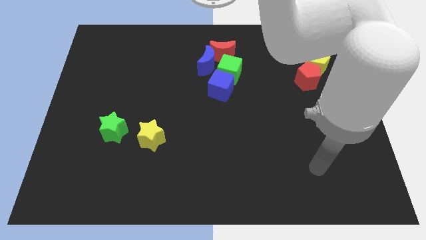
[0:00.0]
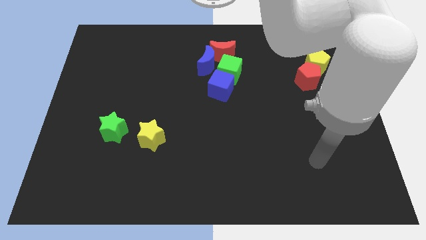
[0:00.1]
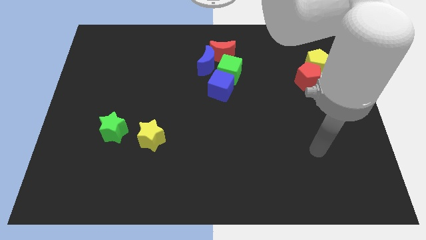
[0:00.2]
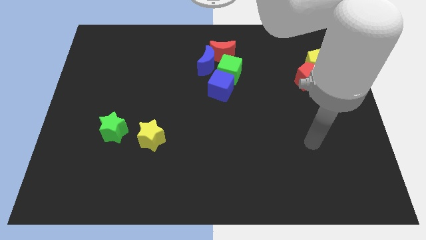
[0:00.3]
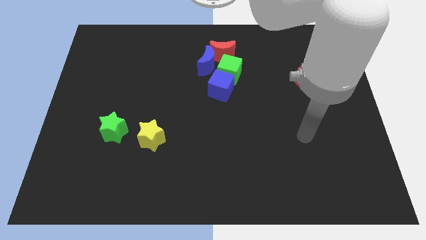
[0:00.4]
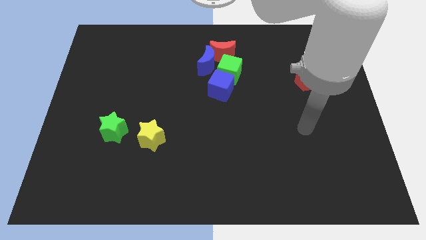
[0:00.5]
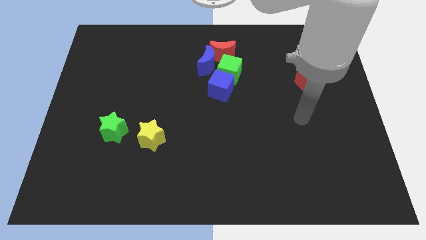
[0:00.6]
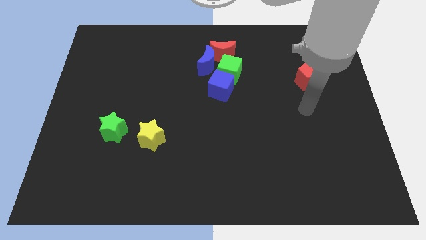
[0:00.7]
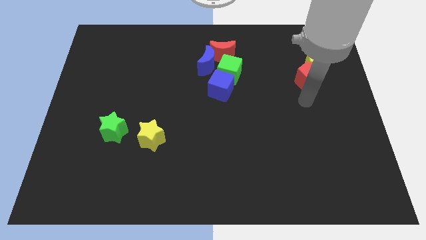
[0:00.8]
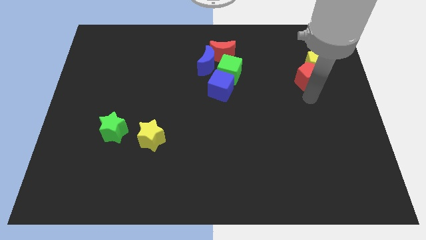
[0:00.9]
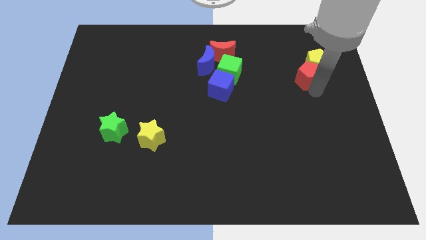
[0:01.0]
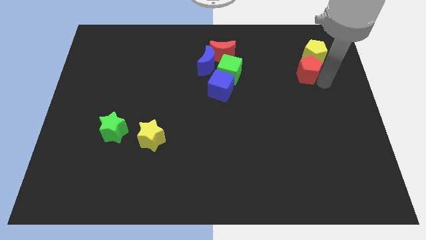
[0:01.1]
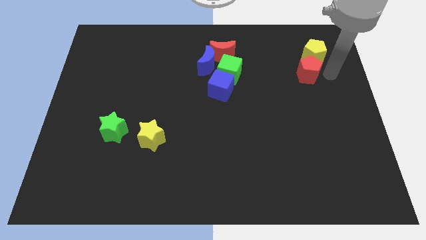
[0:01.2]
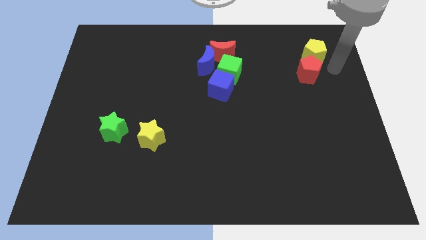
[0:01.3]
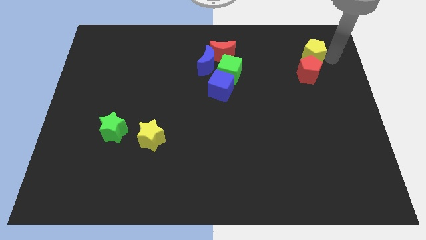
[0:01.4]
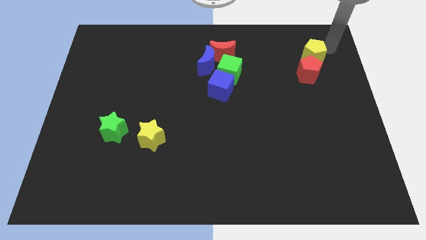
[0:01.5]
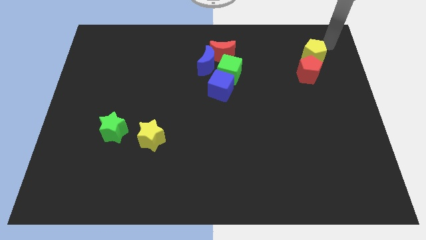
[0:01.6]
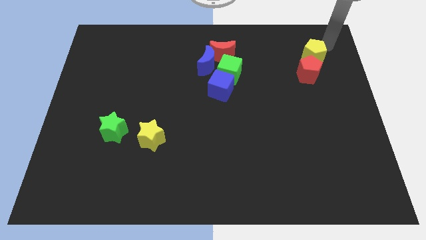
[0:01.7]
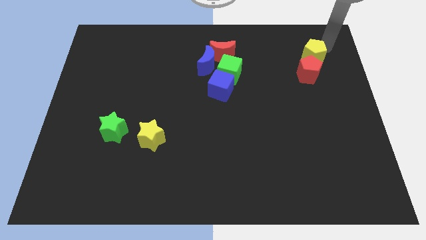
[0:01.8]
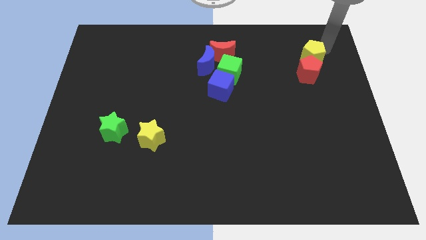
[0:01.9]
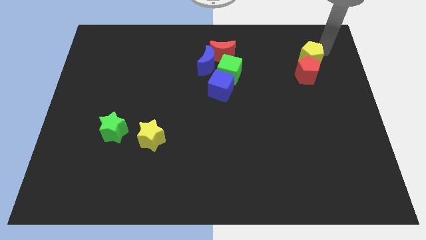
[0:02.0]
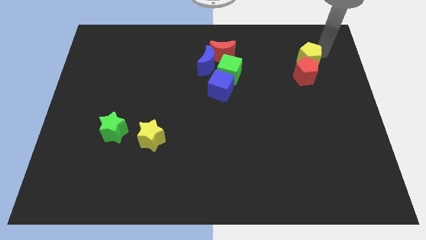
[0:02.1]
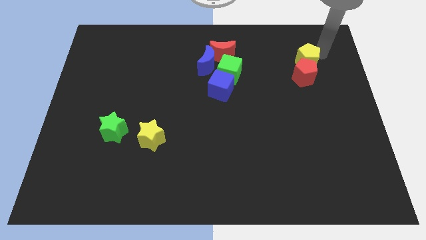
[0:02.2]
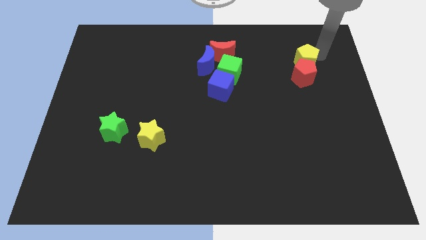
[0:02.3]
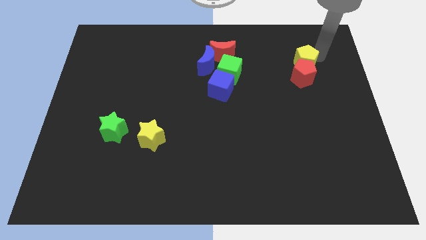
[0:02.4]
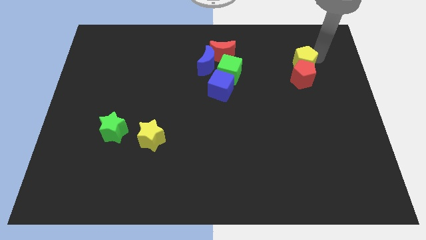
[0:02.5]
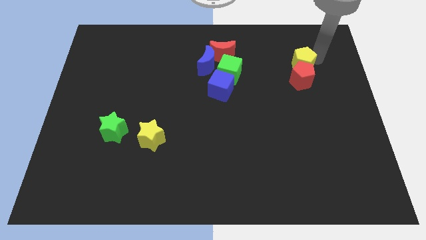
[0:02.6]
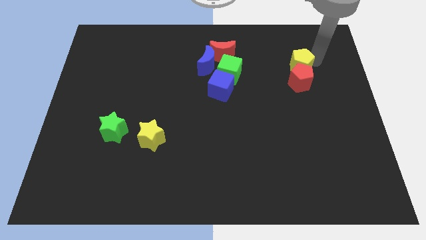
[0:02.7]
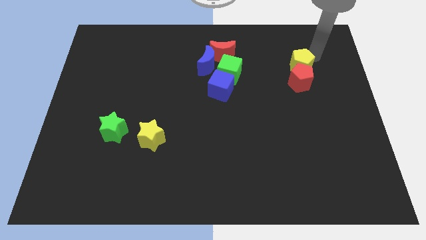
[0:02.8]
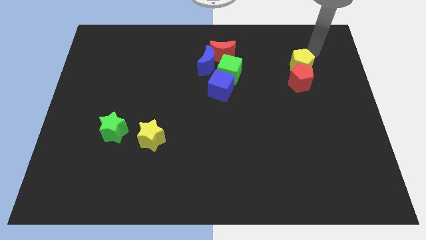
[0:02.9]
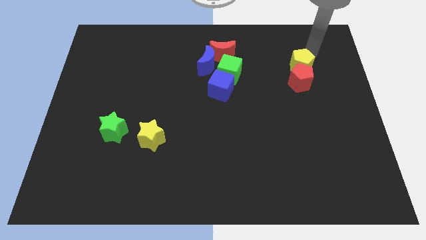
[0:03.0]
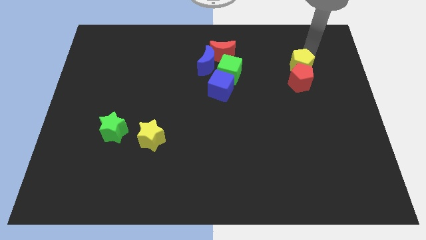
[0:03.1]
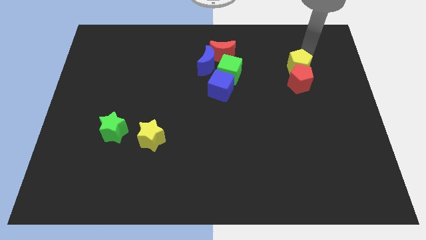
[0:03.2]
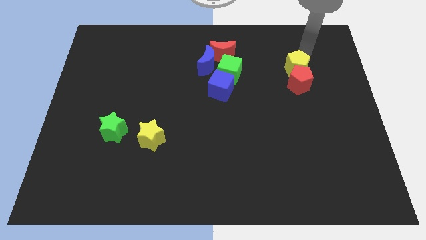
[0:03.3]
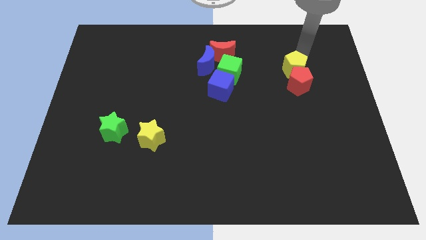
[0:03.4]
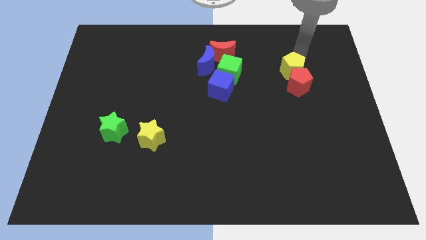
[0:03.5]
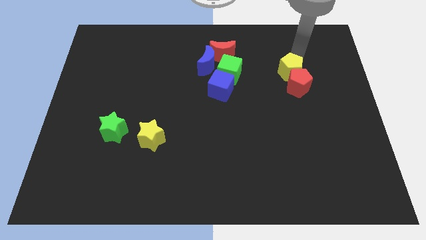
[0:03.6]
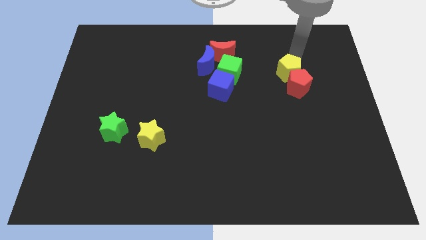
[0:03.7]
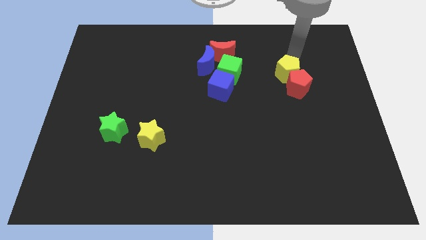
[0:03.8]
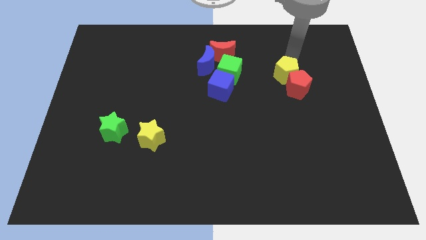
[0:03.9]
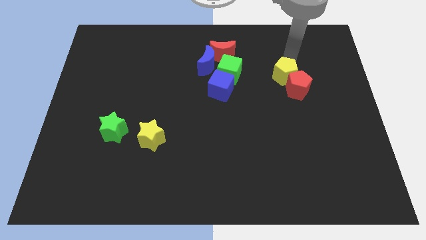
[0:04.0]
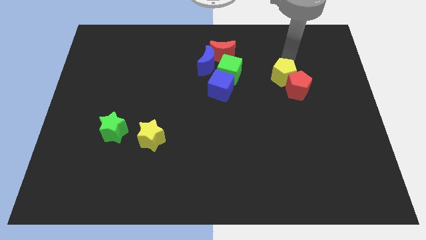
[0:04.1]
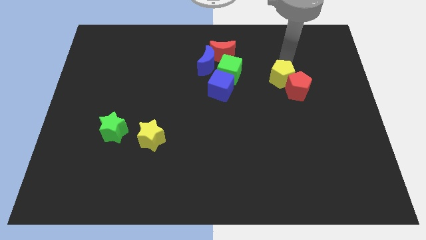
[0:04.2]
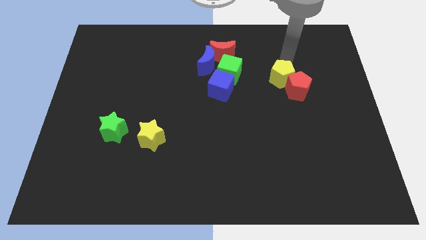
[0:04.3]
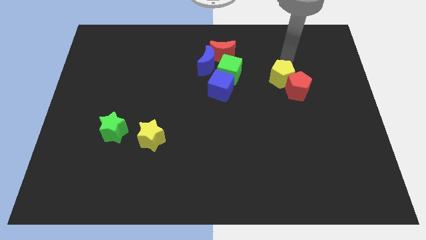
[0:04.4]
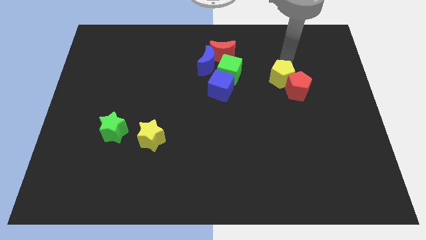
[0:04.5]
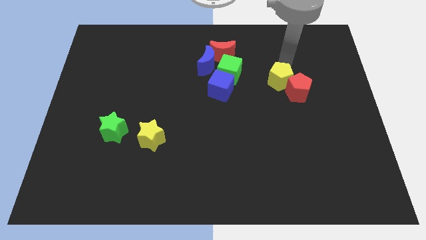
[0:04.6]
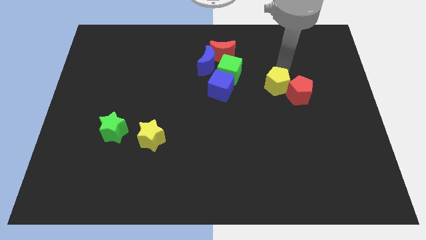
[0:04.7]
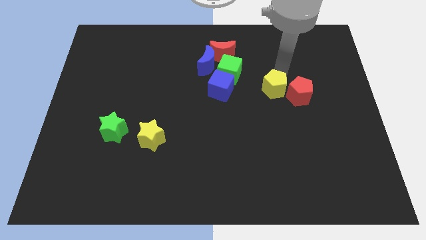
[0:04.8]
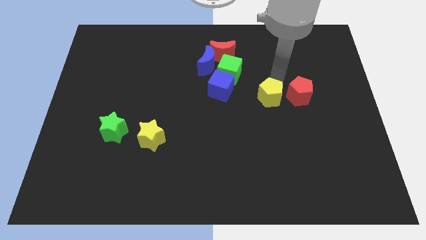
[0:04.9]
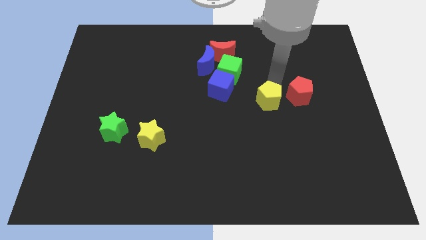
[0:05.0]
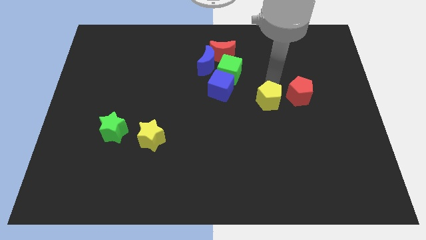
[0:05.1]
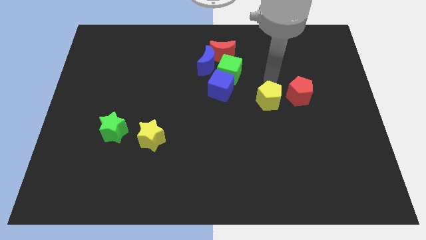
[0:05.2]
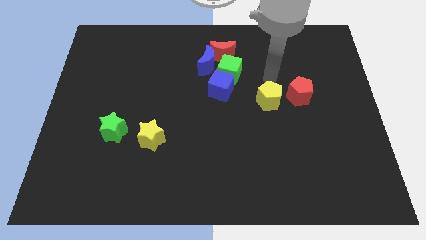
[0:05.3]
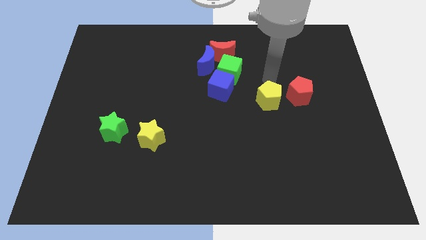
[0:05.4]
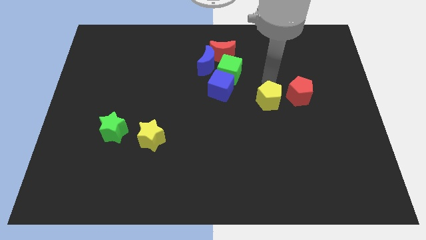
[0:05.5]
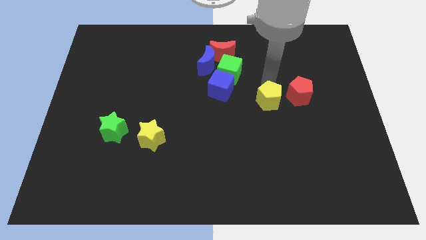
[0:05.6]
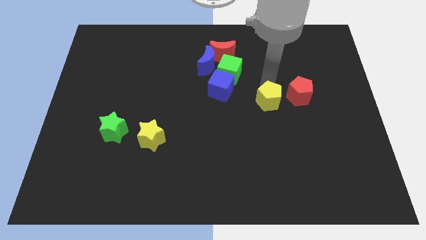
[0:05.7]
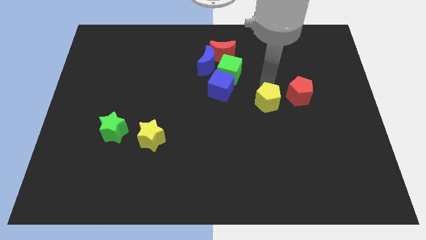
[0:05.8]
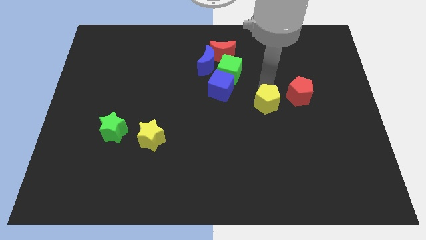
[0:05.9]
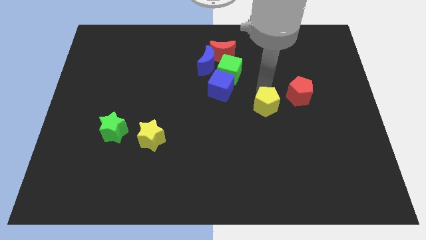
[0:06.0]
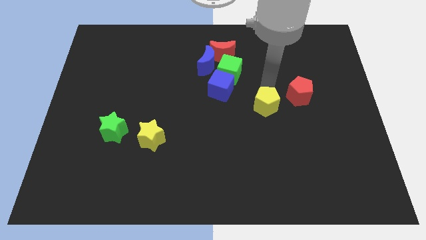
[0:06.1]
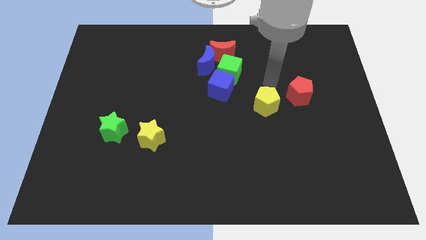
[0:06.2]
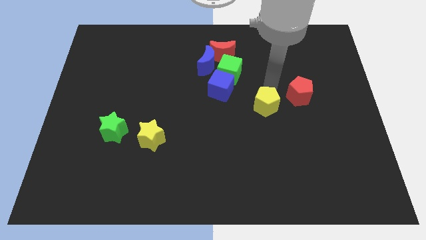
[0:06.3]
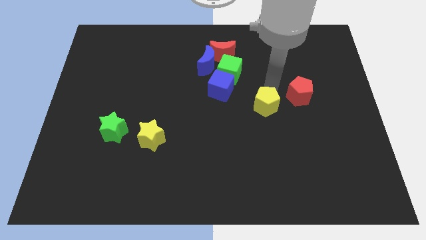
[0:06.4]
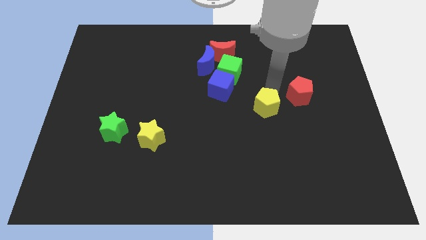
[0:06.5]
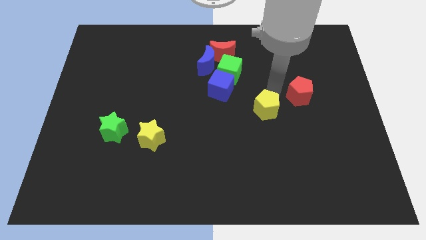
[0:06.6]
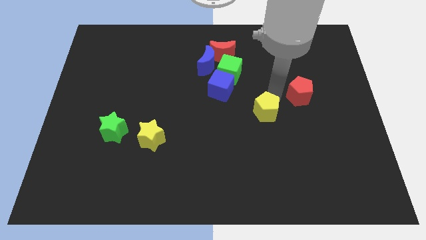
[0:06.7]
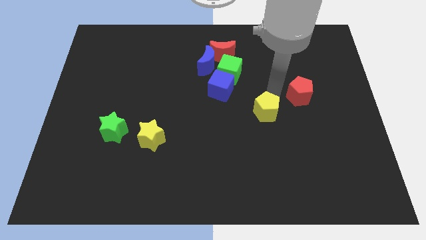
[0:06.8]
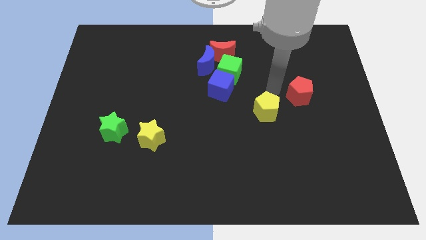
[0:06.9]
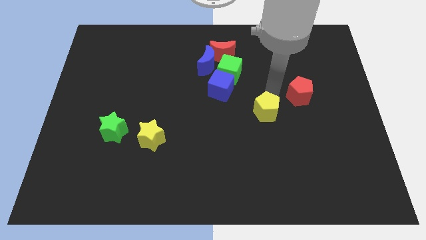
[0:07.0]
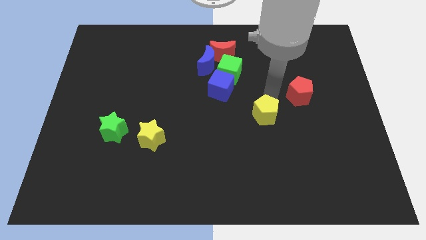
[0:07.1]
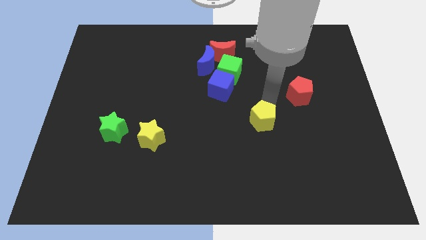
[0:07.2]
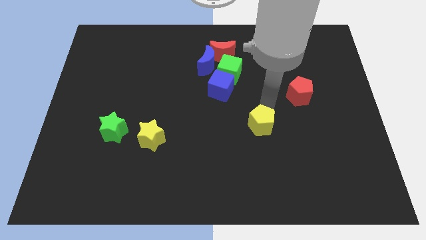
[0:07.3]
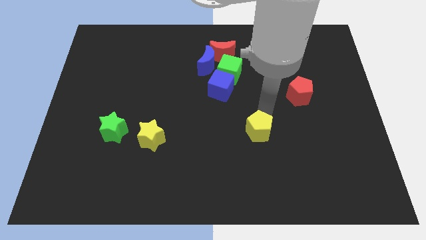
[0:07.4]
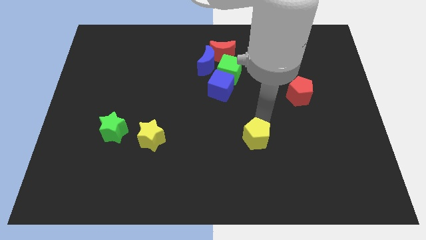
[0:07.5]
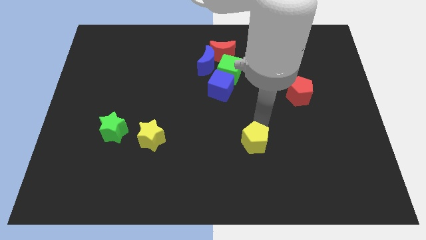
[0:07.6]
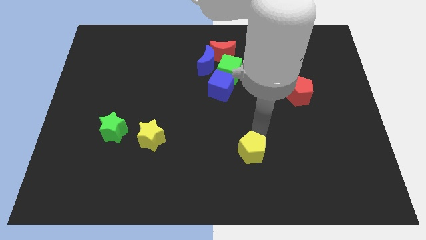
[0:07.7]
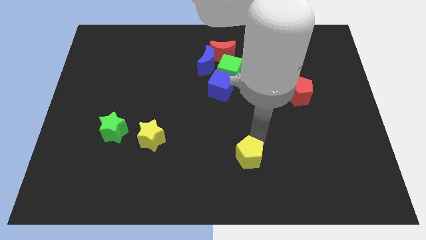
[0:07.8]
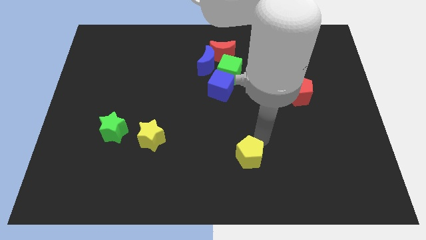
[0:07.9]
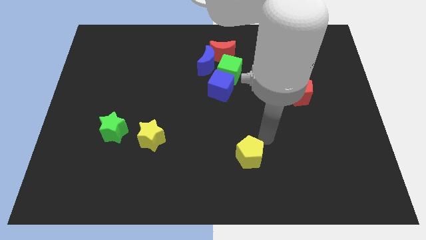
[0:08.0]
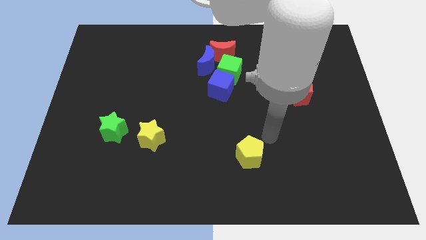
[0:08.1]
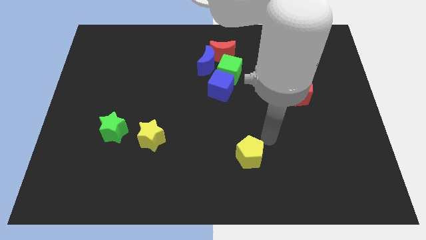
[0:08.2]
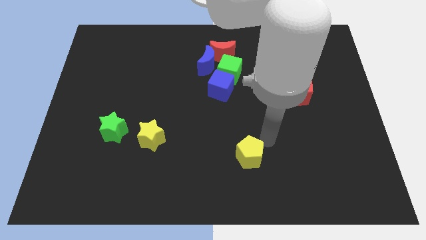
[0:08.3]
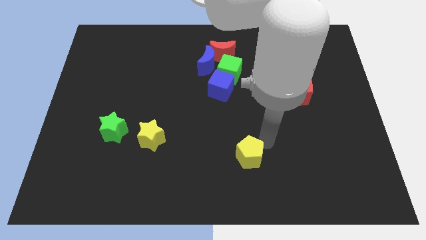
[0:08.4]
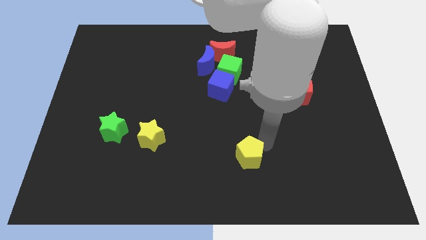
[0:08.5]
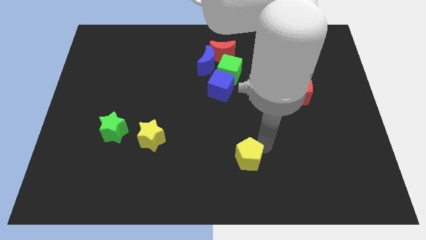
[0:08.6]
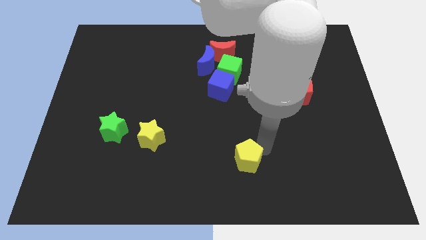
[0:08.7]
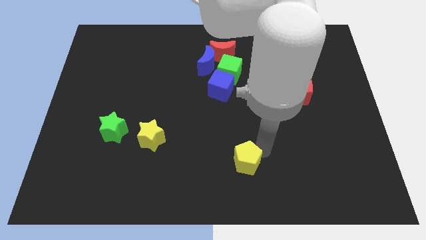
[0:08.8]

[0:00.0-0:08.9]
move the yellow pentagon to the bottom
